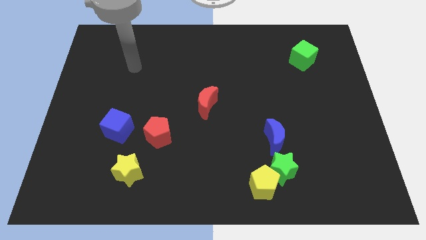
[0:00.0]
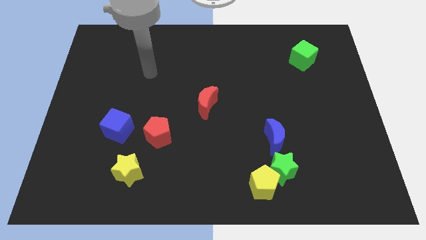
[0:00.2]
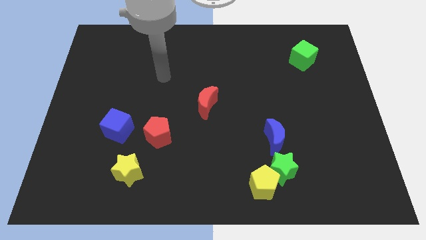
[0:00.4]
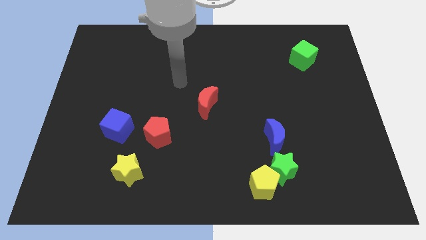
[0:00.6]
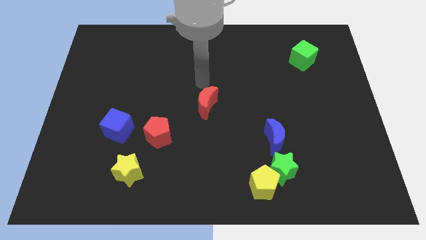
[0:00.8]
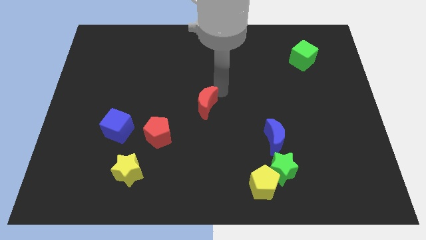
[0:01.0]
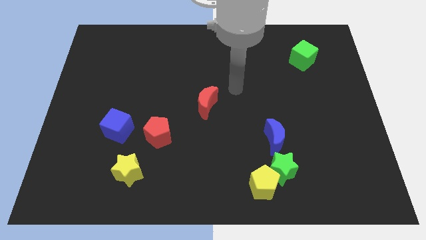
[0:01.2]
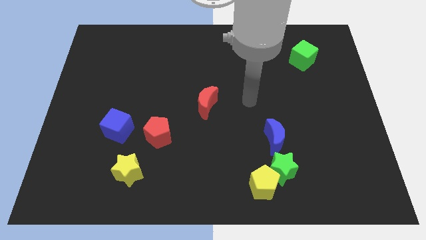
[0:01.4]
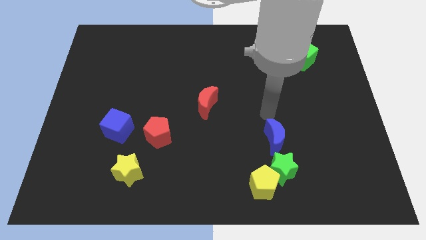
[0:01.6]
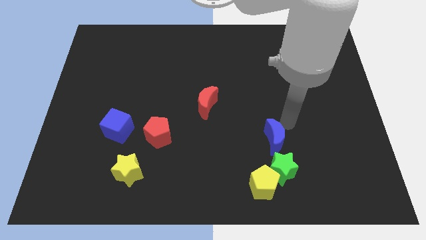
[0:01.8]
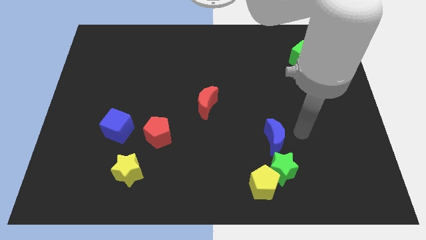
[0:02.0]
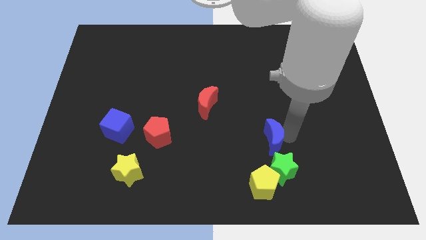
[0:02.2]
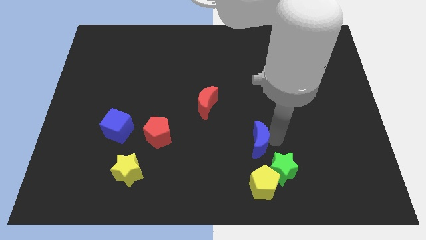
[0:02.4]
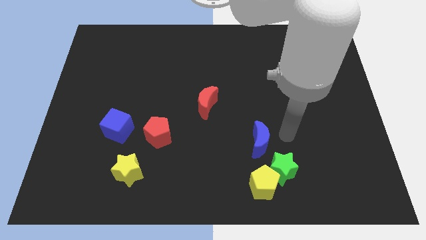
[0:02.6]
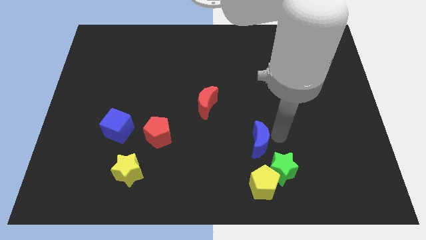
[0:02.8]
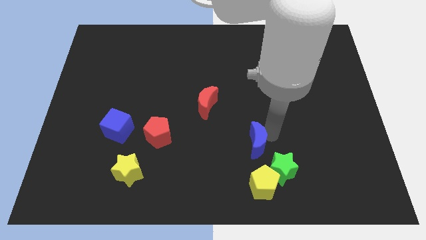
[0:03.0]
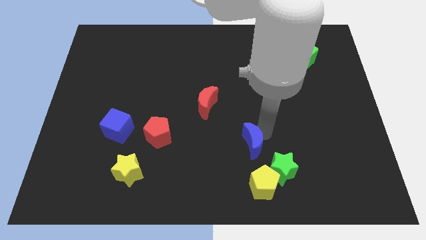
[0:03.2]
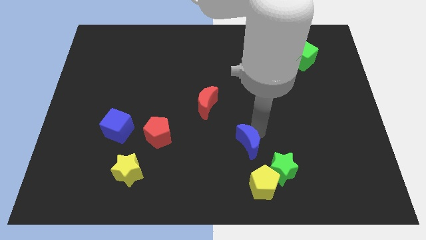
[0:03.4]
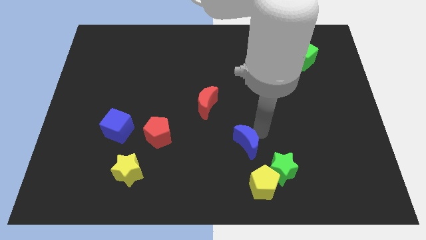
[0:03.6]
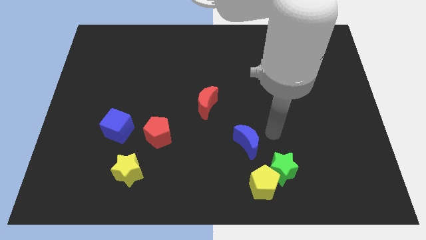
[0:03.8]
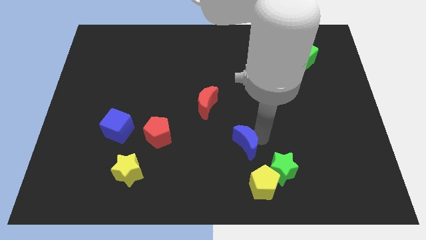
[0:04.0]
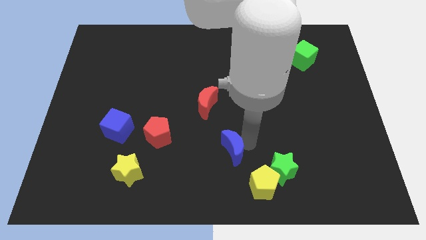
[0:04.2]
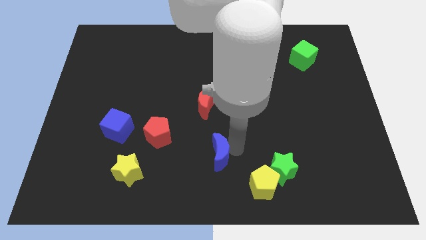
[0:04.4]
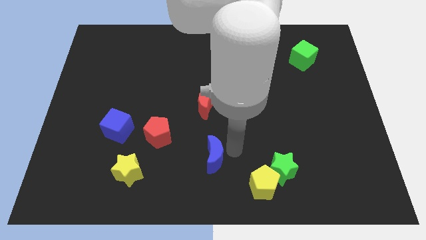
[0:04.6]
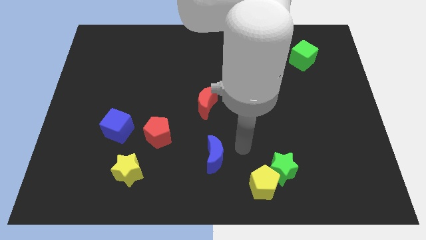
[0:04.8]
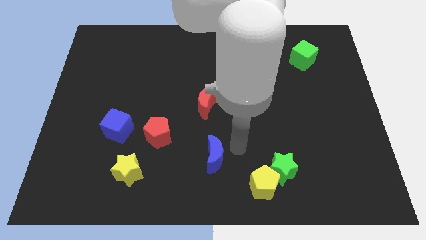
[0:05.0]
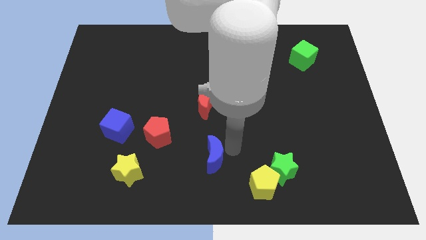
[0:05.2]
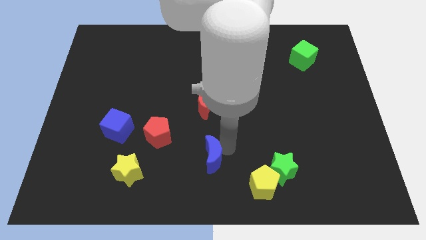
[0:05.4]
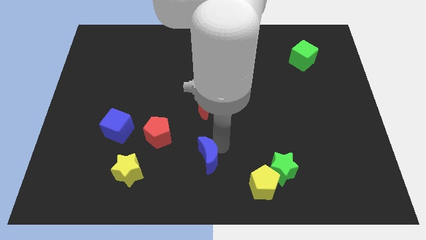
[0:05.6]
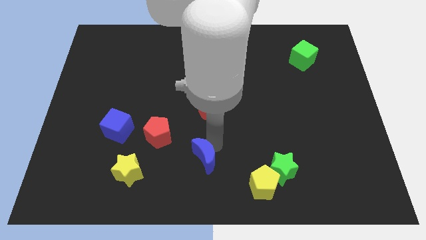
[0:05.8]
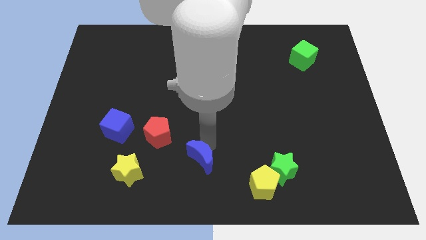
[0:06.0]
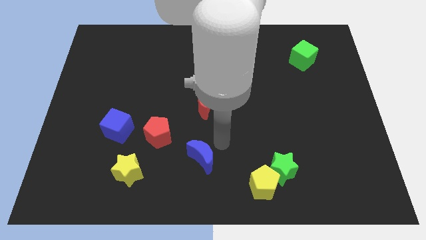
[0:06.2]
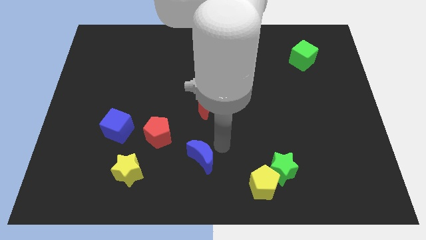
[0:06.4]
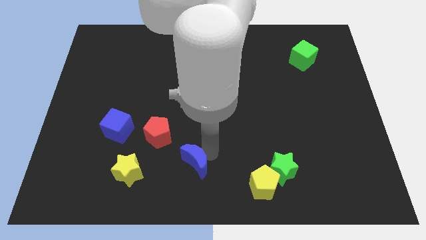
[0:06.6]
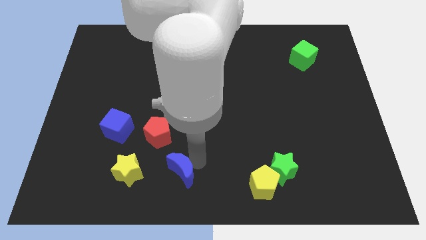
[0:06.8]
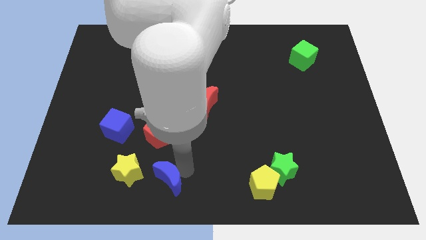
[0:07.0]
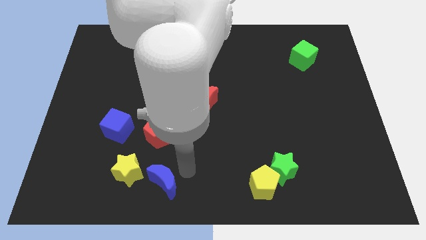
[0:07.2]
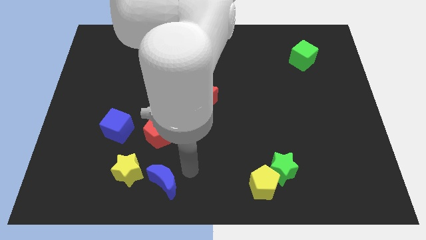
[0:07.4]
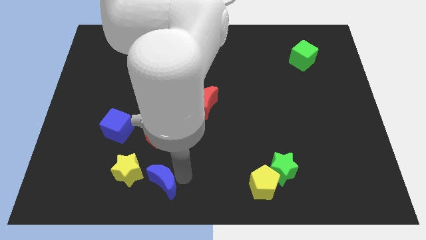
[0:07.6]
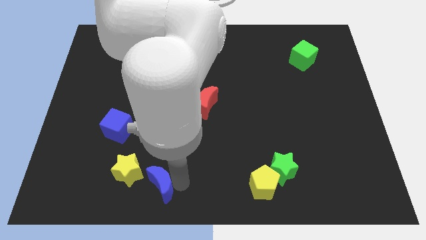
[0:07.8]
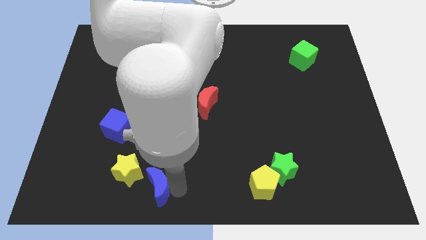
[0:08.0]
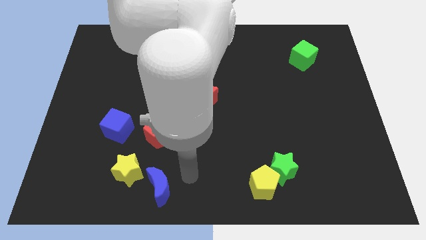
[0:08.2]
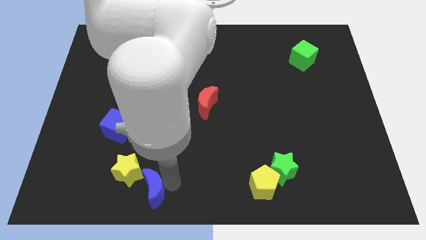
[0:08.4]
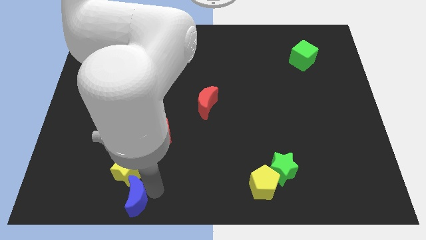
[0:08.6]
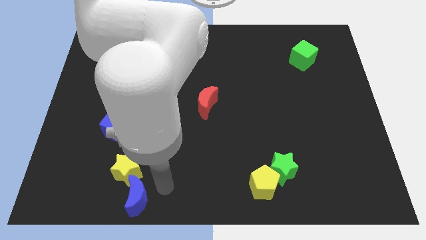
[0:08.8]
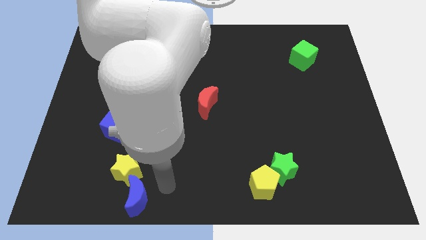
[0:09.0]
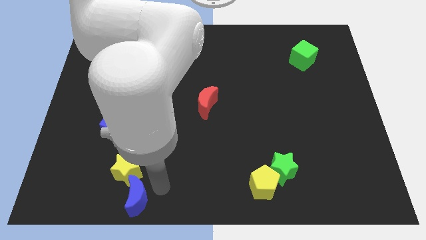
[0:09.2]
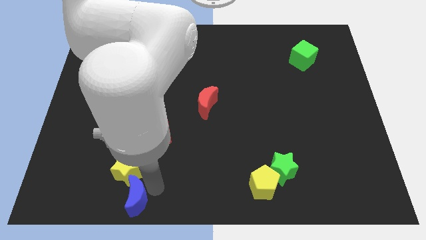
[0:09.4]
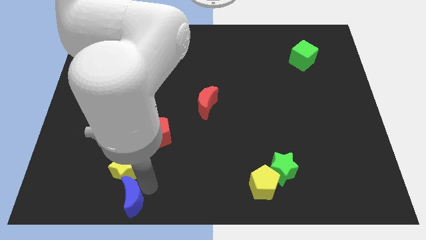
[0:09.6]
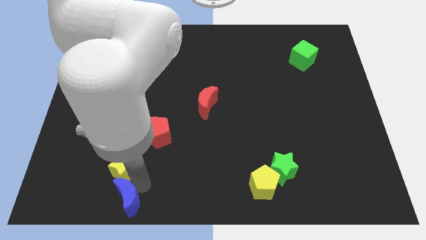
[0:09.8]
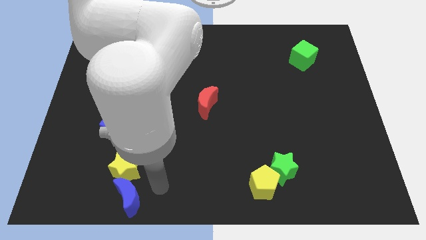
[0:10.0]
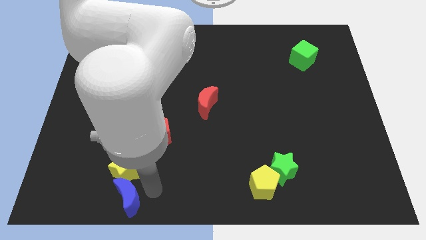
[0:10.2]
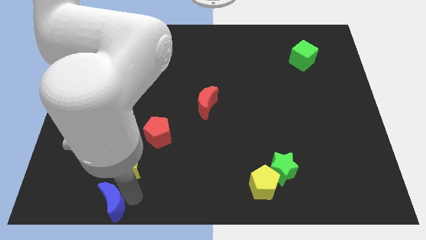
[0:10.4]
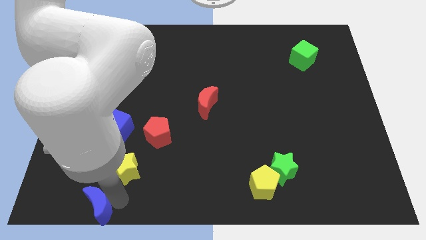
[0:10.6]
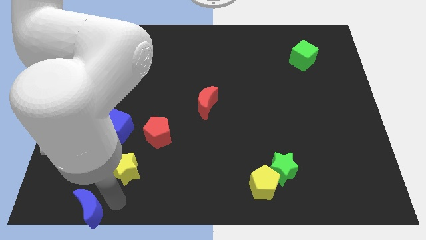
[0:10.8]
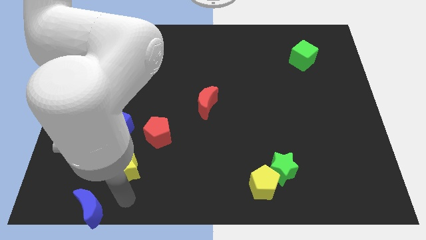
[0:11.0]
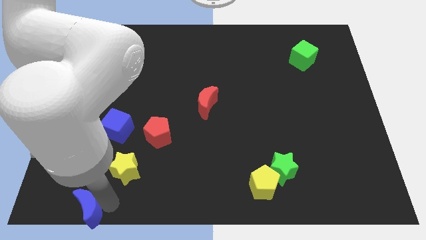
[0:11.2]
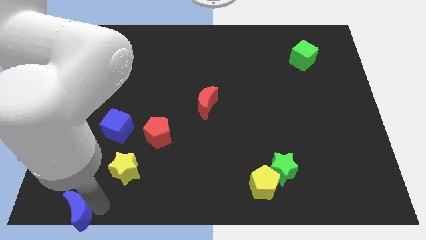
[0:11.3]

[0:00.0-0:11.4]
push the blue moon to the bottom left

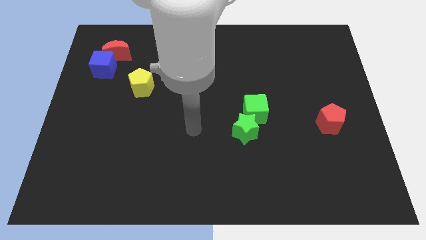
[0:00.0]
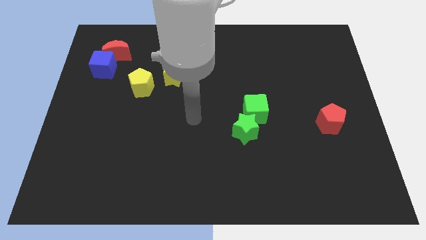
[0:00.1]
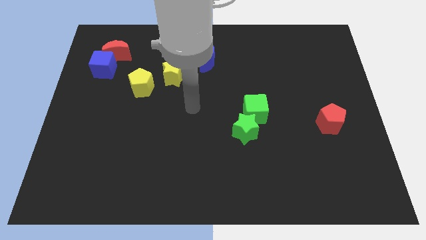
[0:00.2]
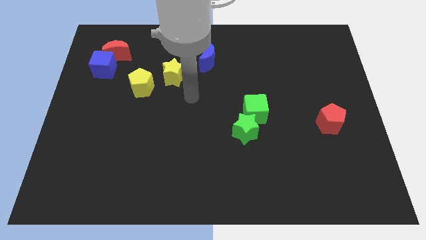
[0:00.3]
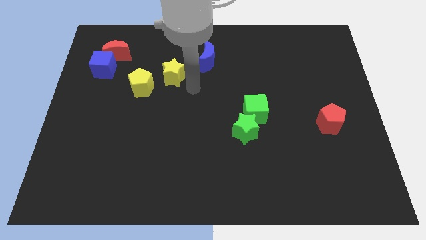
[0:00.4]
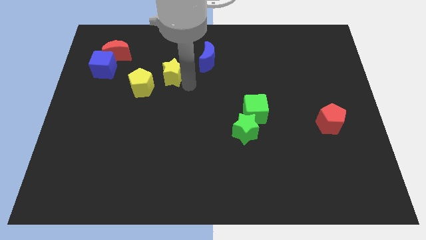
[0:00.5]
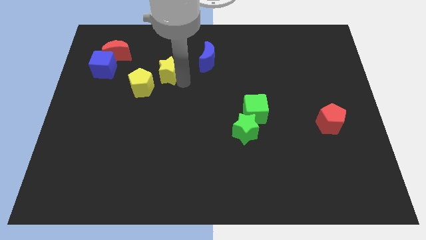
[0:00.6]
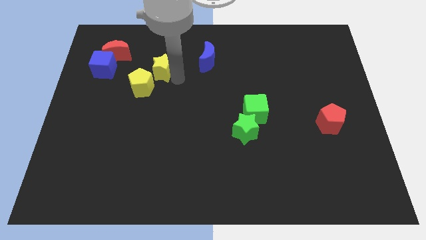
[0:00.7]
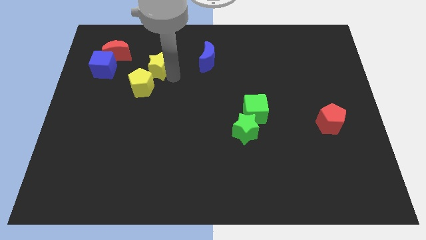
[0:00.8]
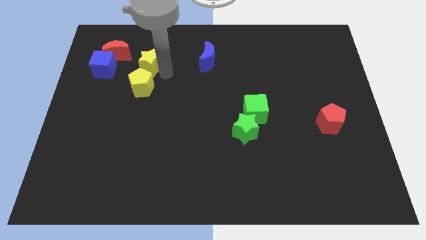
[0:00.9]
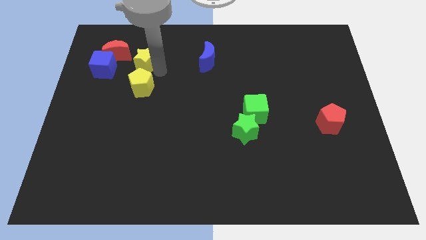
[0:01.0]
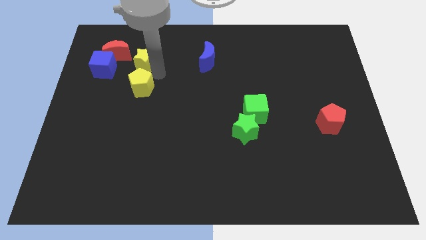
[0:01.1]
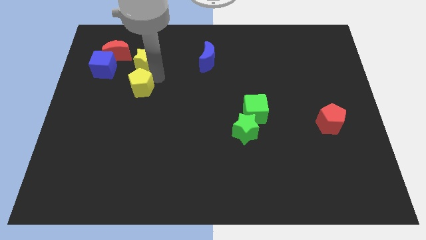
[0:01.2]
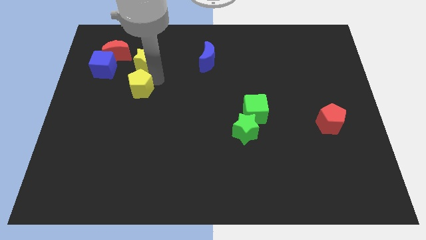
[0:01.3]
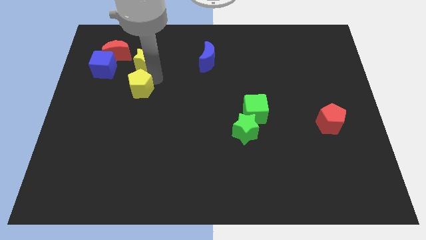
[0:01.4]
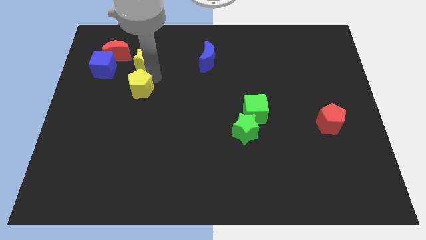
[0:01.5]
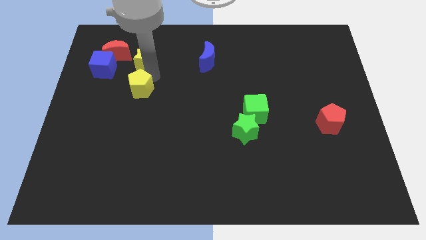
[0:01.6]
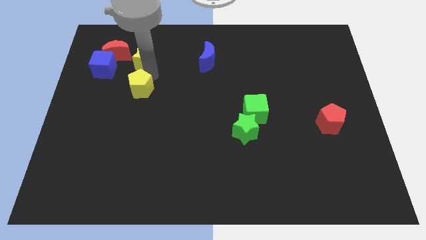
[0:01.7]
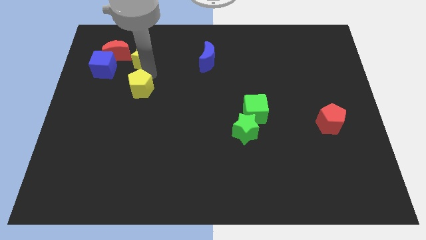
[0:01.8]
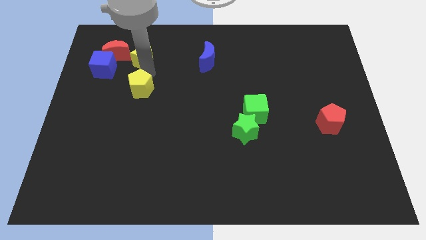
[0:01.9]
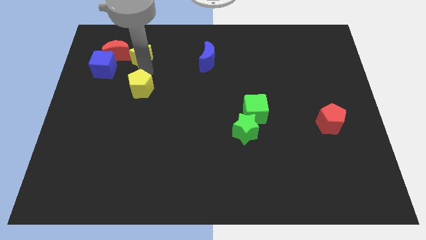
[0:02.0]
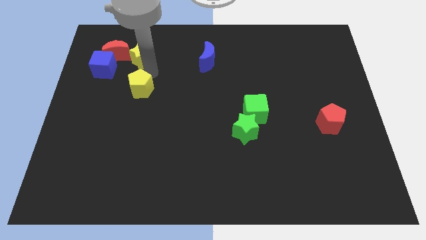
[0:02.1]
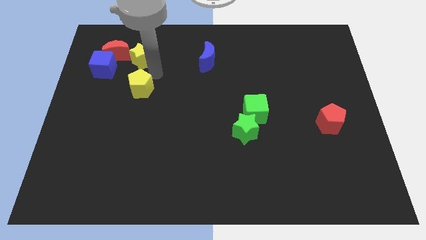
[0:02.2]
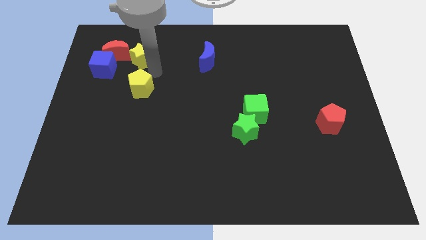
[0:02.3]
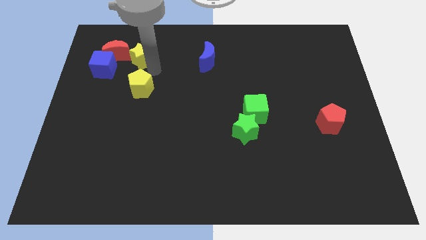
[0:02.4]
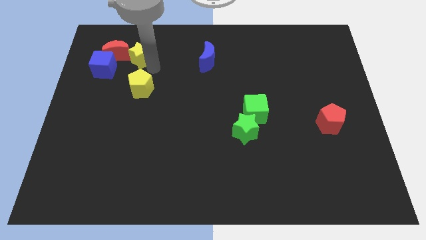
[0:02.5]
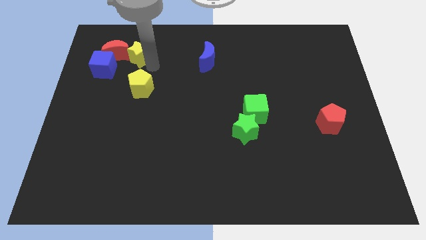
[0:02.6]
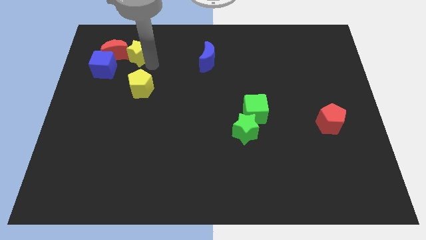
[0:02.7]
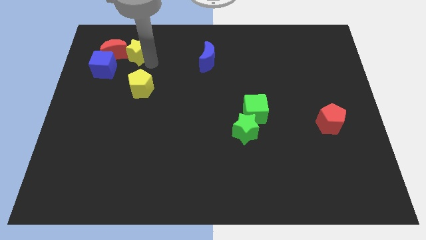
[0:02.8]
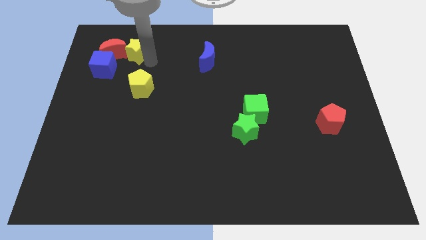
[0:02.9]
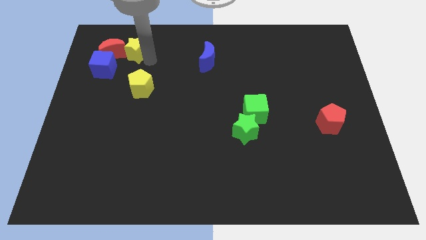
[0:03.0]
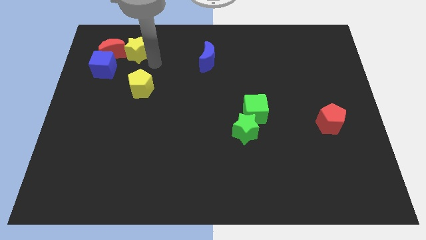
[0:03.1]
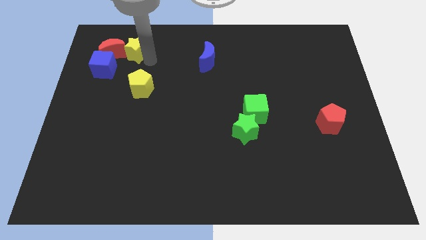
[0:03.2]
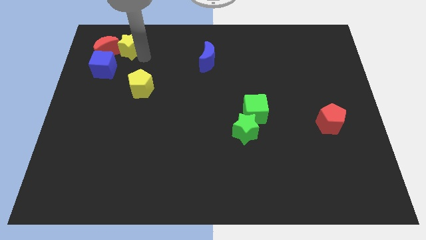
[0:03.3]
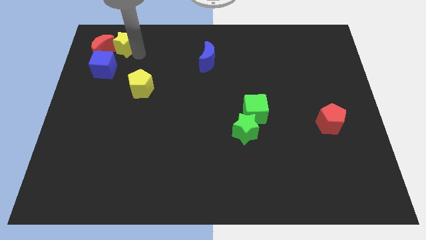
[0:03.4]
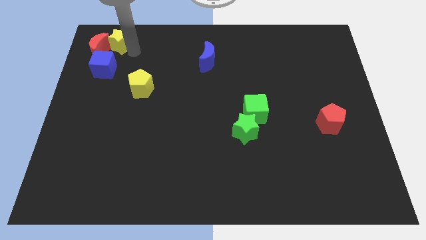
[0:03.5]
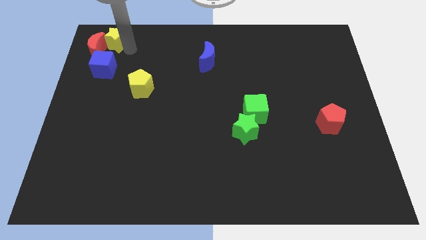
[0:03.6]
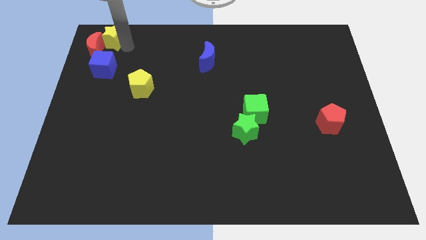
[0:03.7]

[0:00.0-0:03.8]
move the yellow star to the top left
